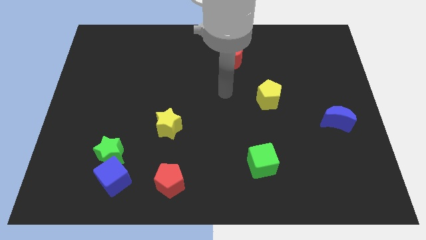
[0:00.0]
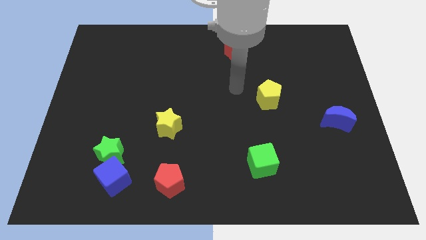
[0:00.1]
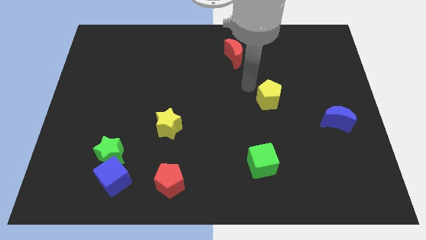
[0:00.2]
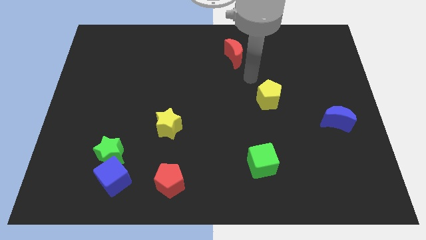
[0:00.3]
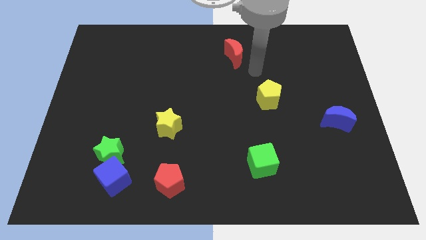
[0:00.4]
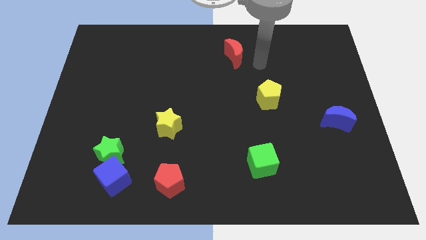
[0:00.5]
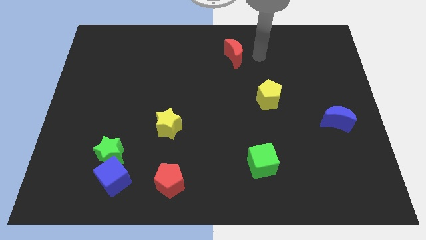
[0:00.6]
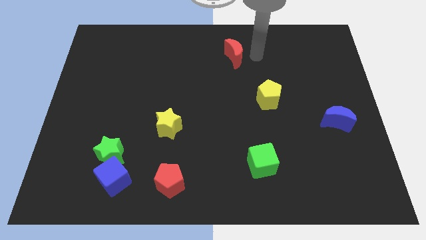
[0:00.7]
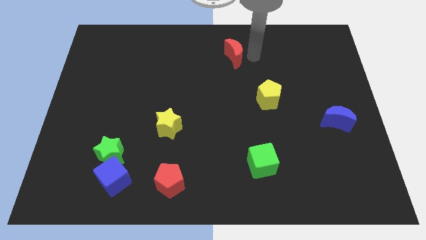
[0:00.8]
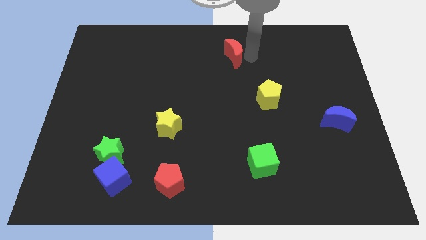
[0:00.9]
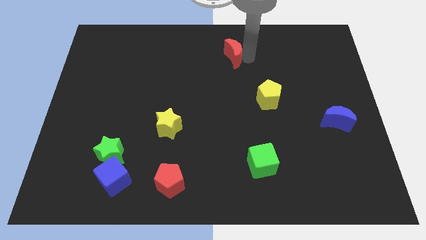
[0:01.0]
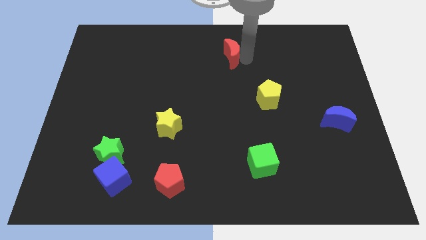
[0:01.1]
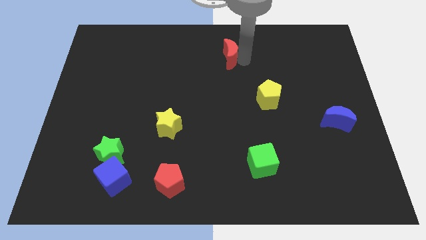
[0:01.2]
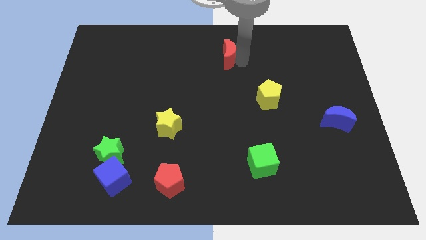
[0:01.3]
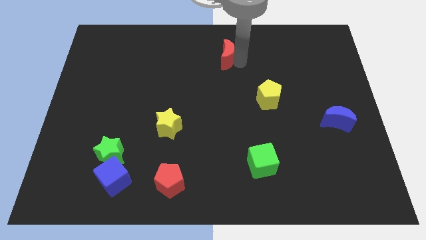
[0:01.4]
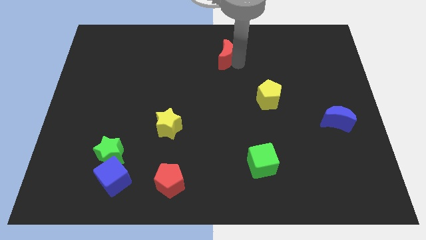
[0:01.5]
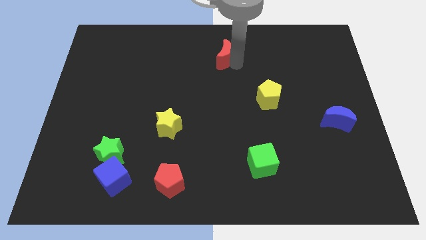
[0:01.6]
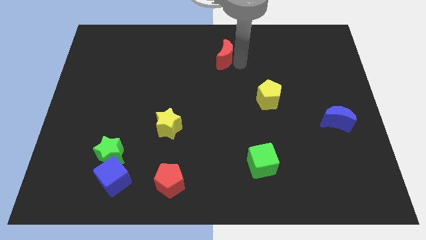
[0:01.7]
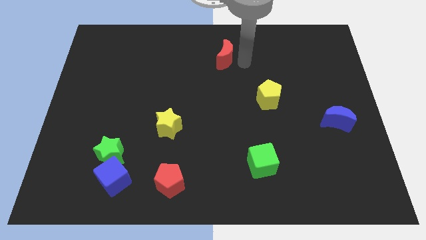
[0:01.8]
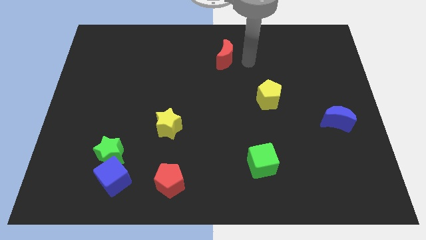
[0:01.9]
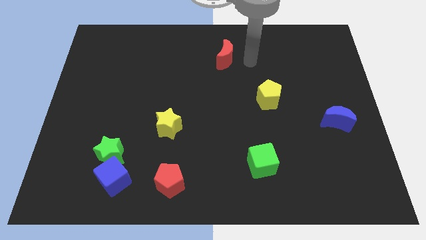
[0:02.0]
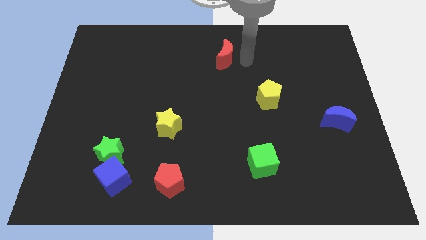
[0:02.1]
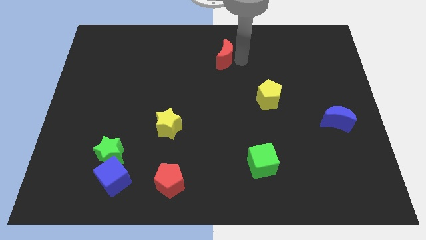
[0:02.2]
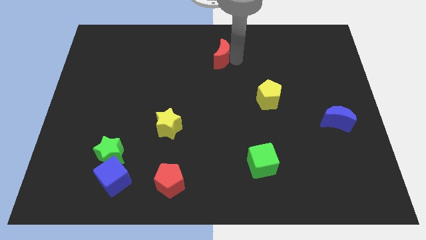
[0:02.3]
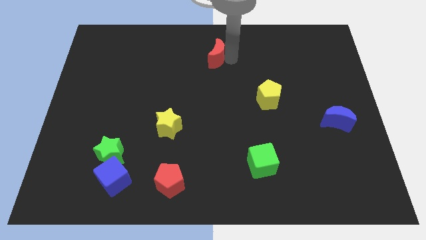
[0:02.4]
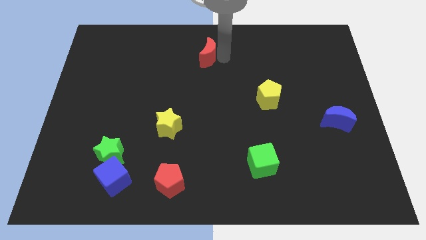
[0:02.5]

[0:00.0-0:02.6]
move the red moon a bit left

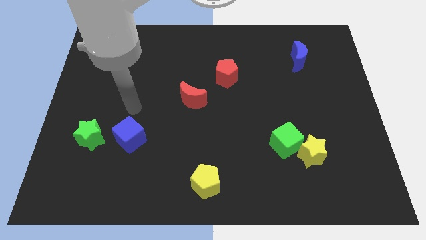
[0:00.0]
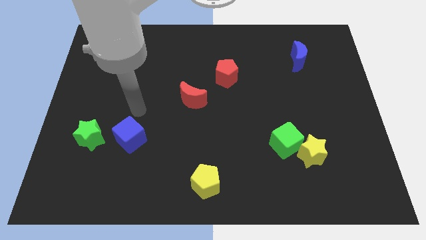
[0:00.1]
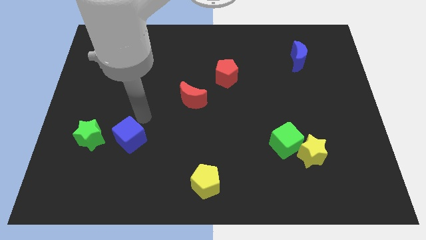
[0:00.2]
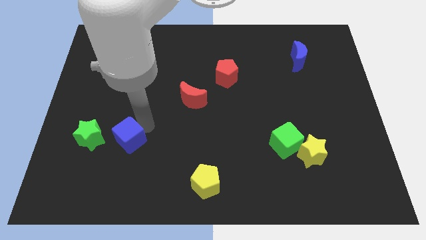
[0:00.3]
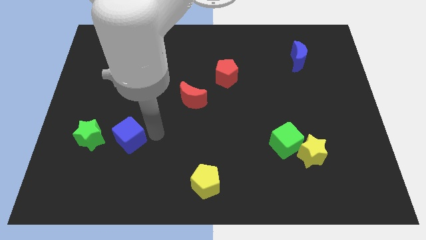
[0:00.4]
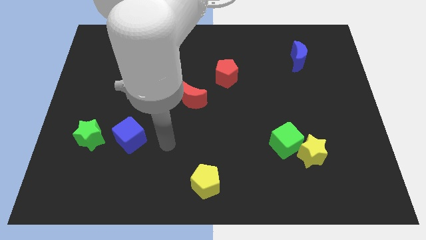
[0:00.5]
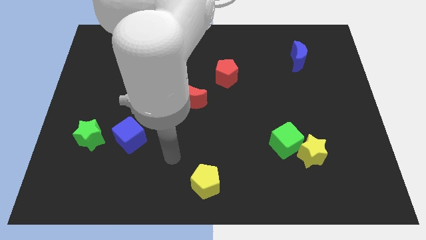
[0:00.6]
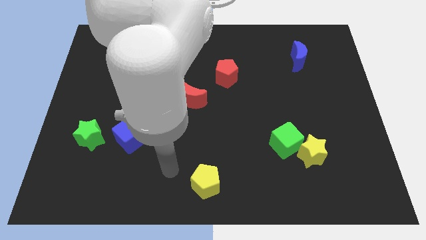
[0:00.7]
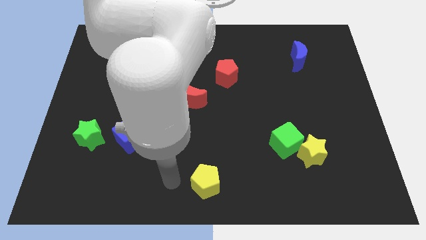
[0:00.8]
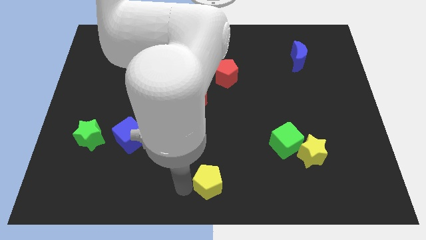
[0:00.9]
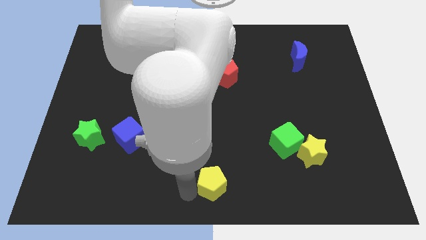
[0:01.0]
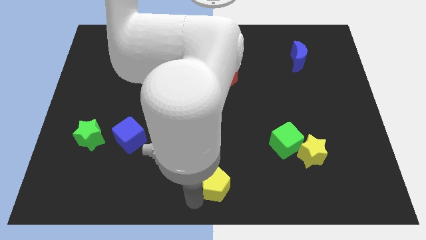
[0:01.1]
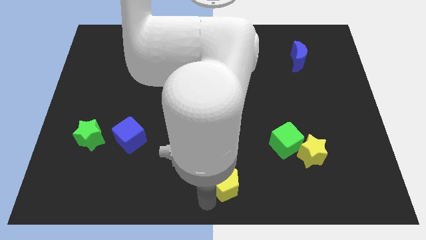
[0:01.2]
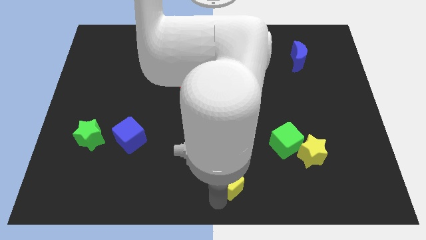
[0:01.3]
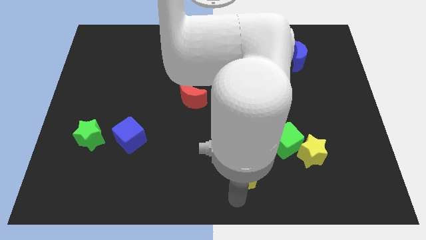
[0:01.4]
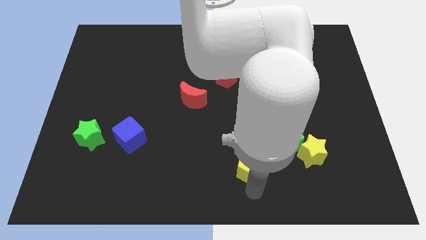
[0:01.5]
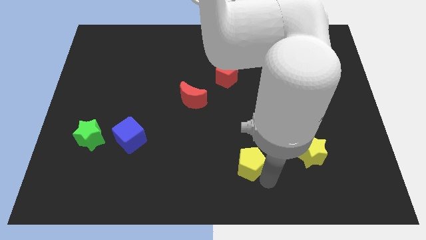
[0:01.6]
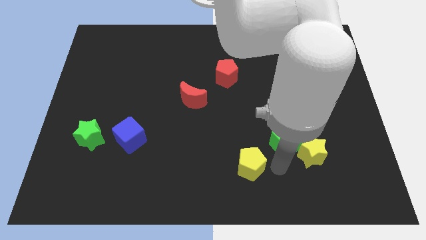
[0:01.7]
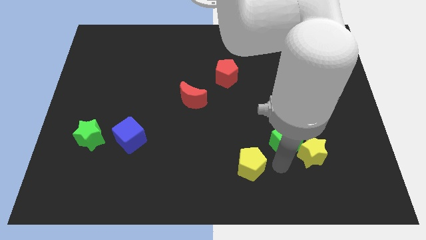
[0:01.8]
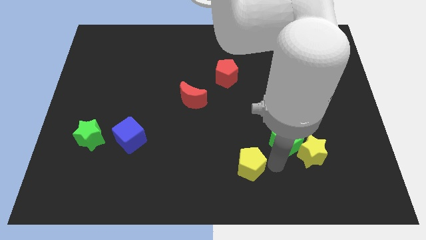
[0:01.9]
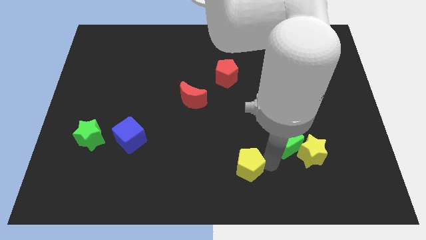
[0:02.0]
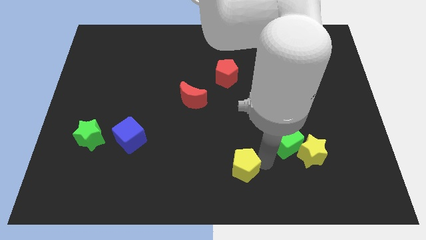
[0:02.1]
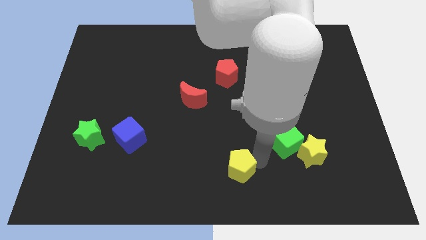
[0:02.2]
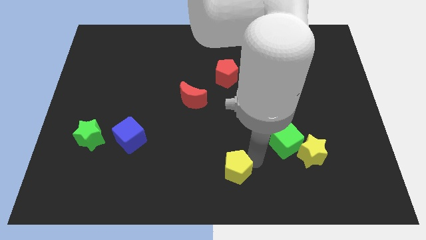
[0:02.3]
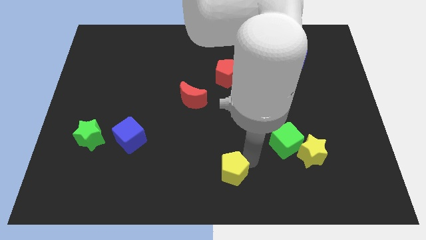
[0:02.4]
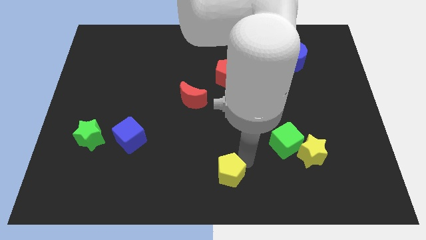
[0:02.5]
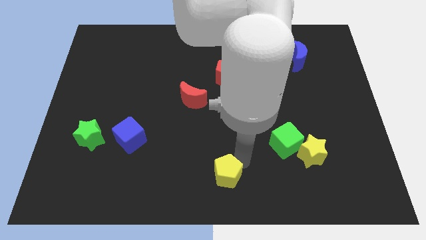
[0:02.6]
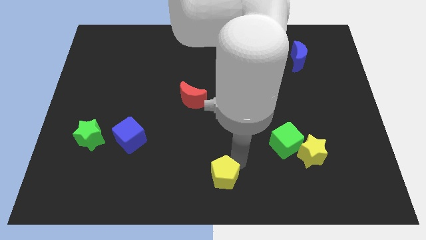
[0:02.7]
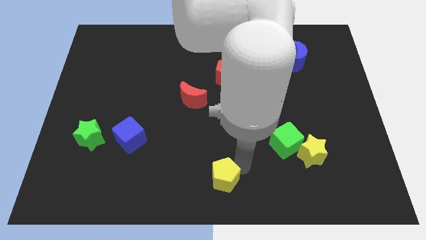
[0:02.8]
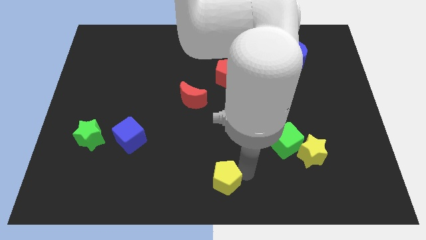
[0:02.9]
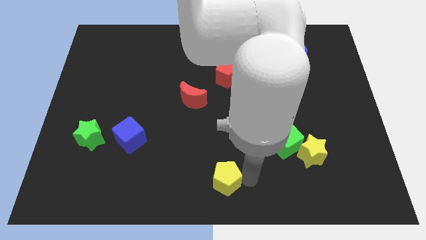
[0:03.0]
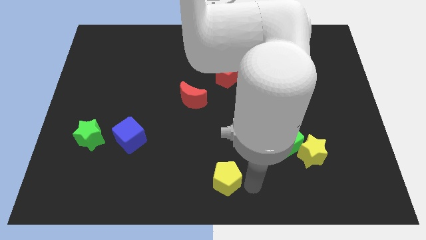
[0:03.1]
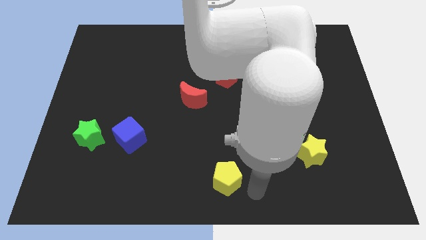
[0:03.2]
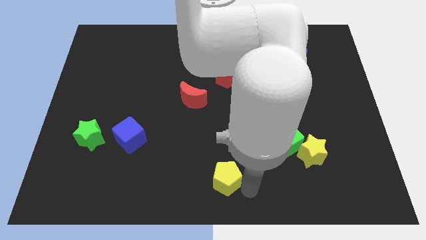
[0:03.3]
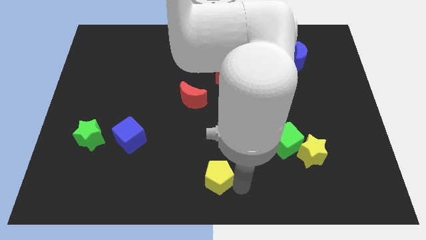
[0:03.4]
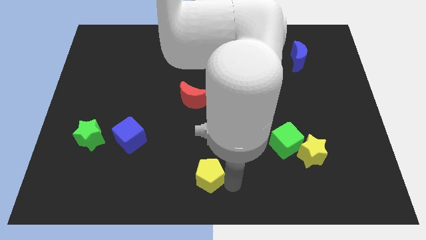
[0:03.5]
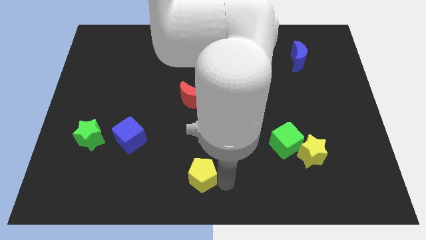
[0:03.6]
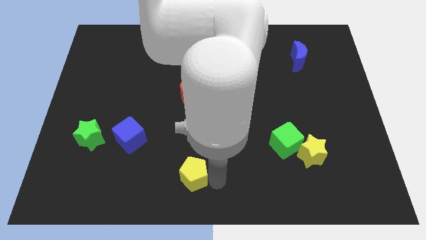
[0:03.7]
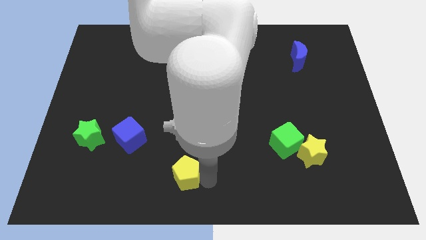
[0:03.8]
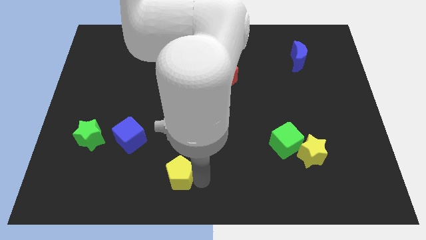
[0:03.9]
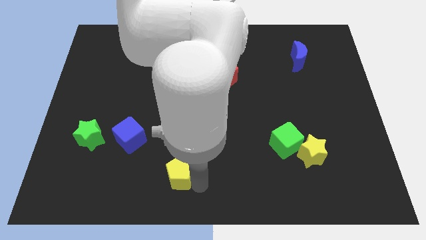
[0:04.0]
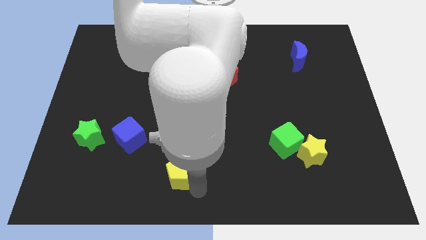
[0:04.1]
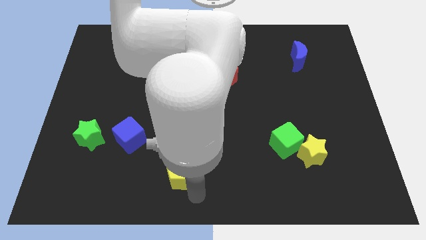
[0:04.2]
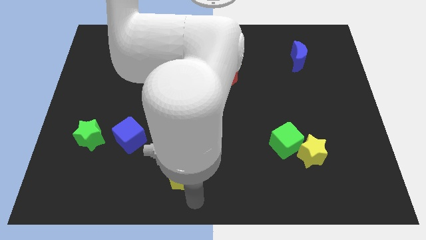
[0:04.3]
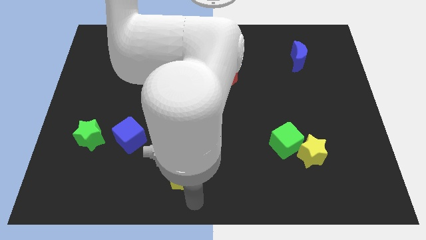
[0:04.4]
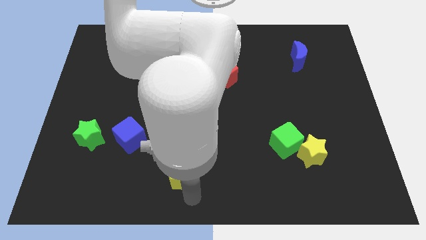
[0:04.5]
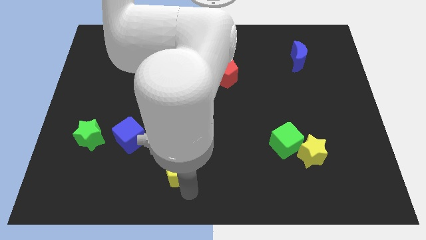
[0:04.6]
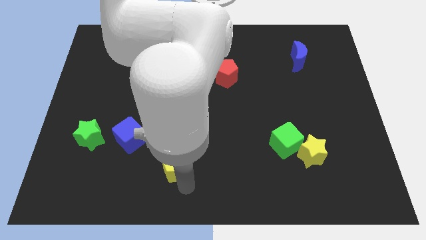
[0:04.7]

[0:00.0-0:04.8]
slide the yellow pentagon a bit up and then left

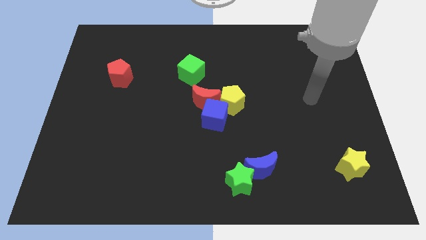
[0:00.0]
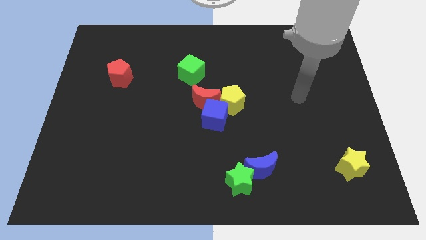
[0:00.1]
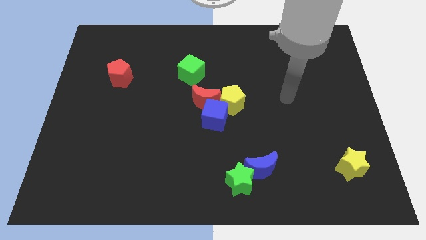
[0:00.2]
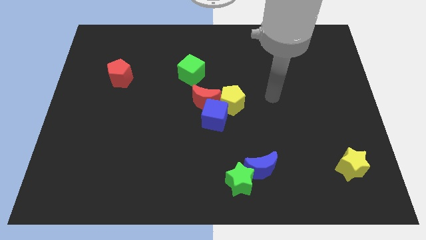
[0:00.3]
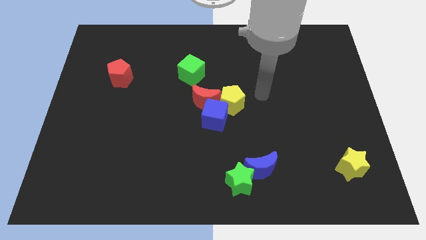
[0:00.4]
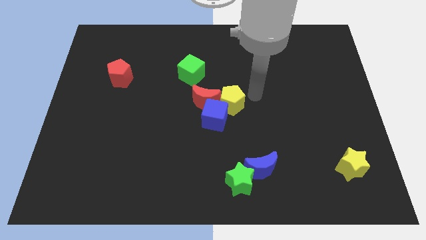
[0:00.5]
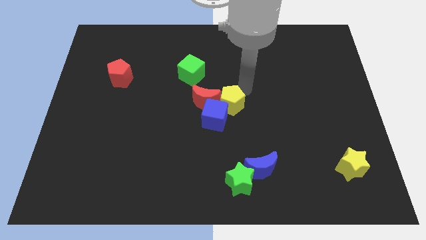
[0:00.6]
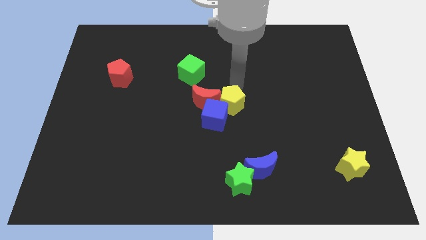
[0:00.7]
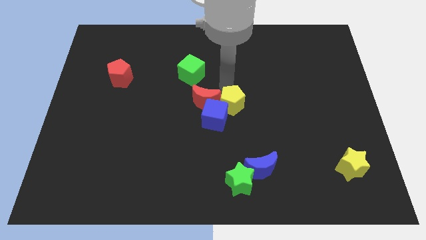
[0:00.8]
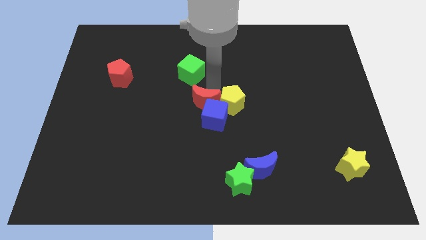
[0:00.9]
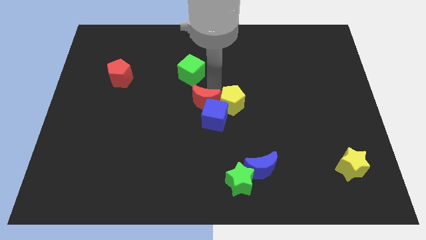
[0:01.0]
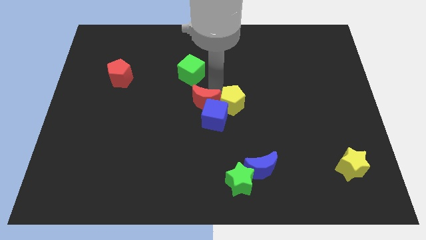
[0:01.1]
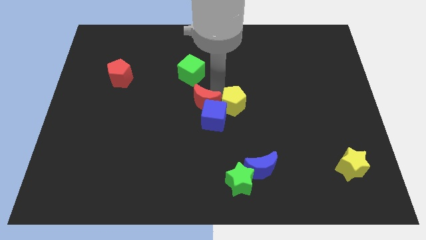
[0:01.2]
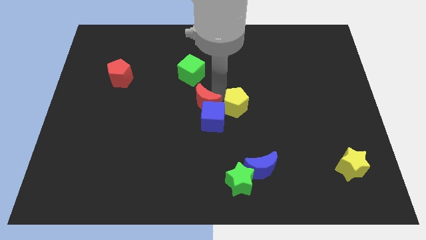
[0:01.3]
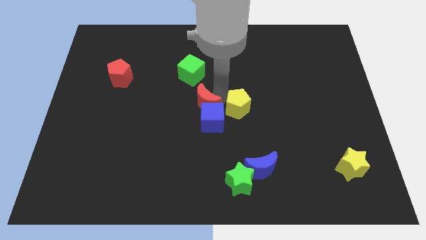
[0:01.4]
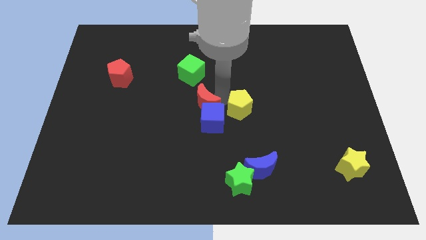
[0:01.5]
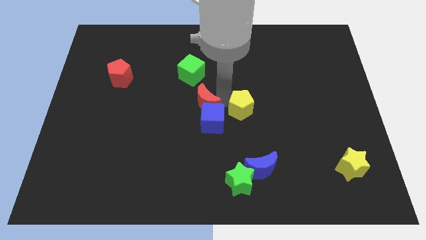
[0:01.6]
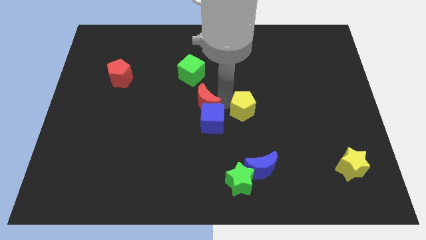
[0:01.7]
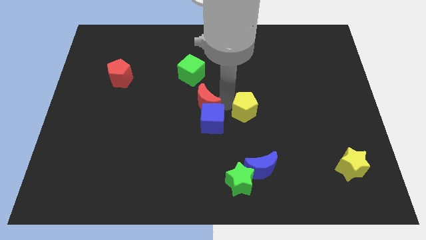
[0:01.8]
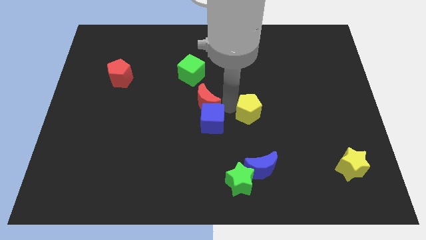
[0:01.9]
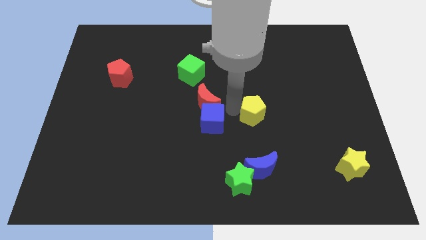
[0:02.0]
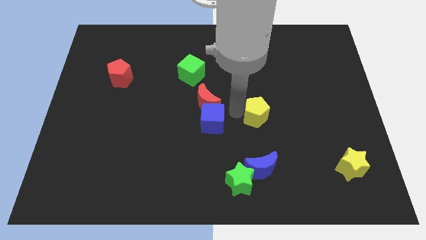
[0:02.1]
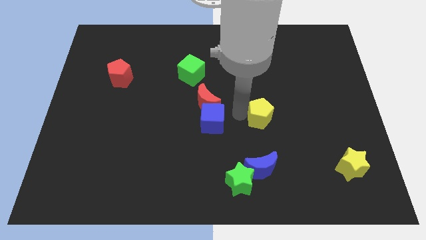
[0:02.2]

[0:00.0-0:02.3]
push the yellow pentagon downwards and then right slightly
